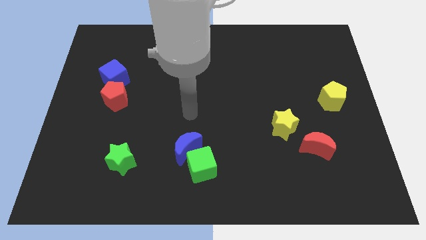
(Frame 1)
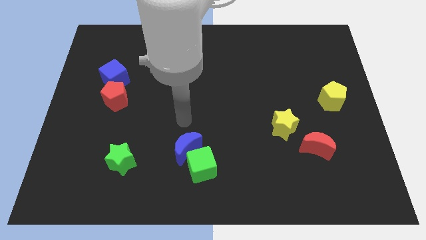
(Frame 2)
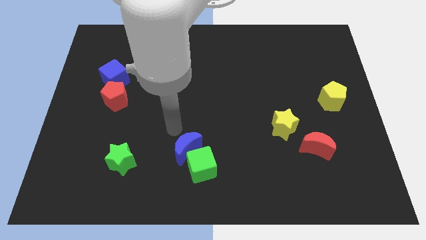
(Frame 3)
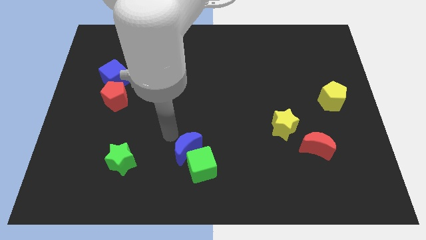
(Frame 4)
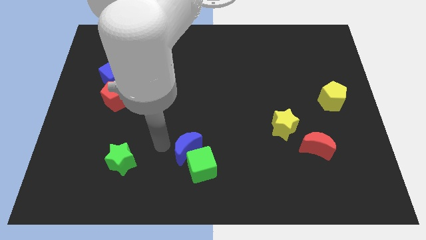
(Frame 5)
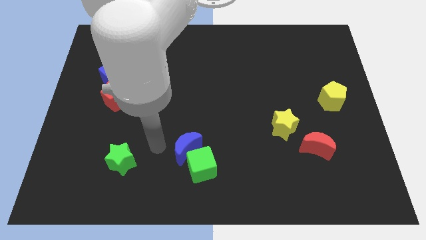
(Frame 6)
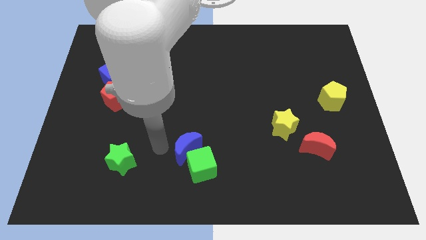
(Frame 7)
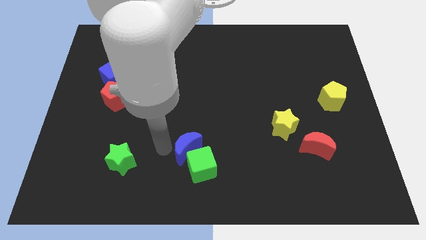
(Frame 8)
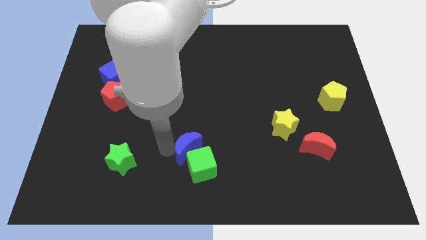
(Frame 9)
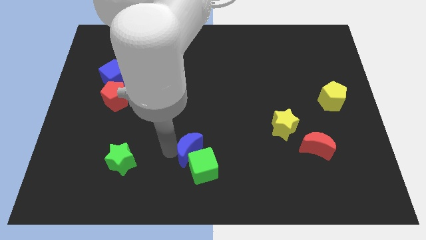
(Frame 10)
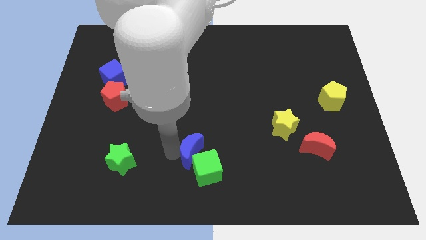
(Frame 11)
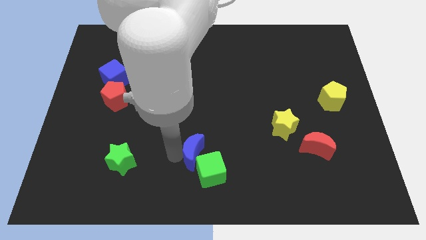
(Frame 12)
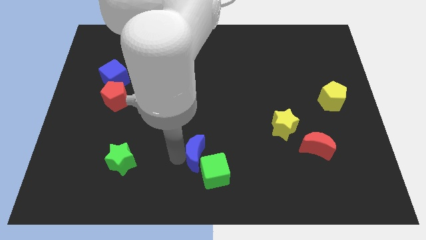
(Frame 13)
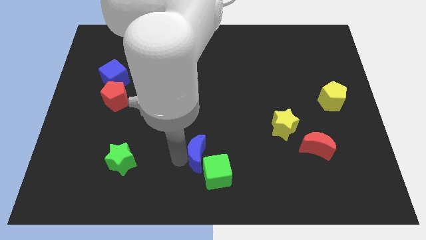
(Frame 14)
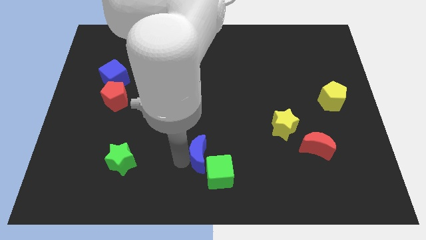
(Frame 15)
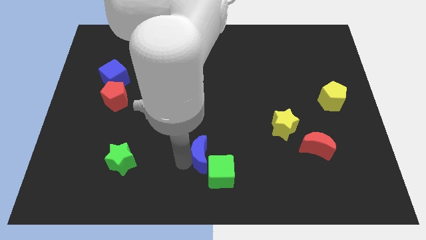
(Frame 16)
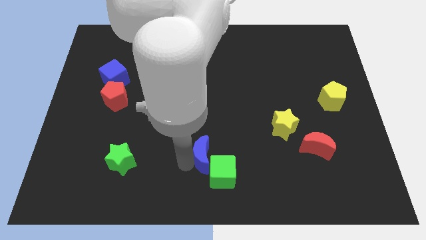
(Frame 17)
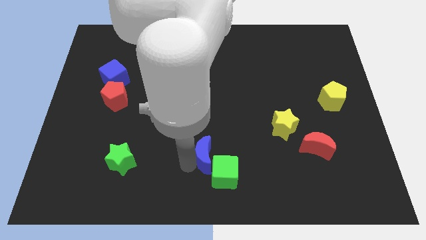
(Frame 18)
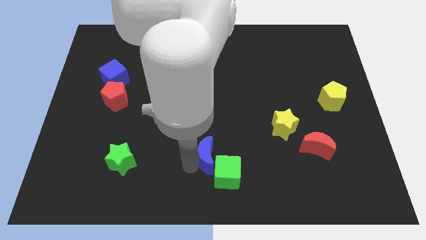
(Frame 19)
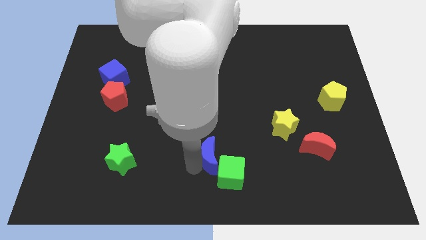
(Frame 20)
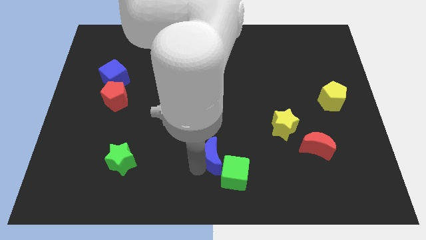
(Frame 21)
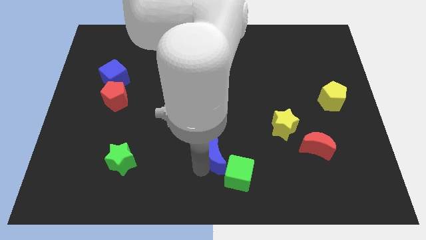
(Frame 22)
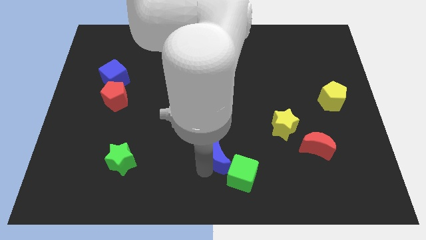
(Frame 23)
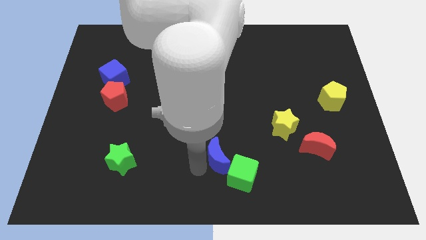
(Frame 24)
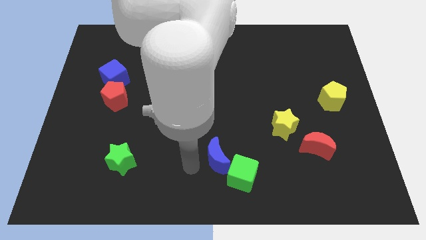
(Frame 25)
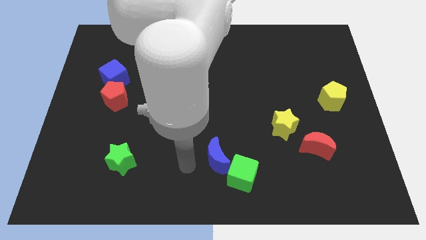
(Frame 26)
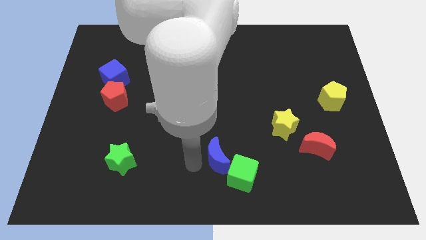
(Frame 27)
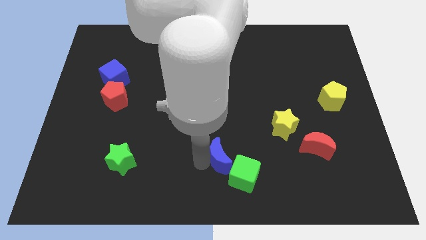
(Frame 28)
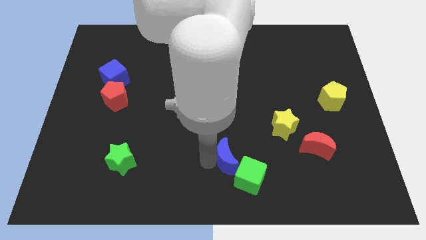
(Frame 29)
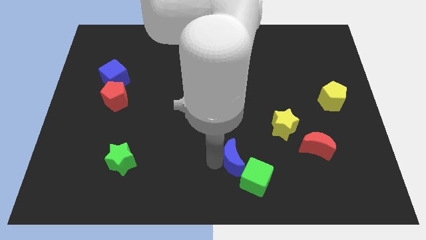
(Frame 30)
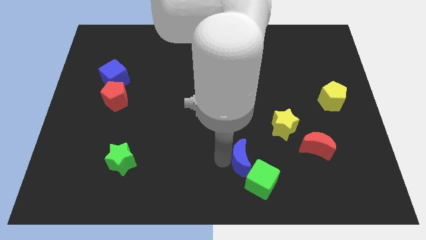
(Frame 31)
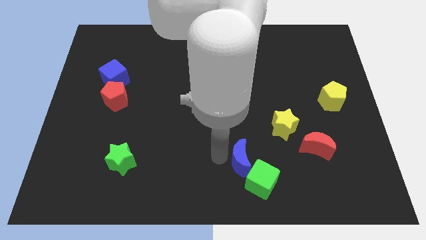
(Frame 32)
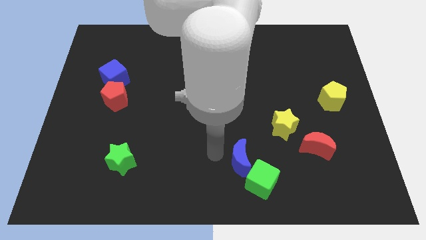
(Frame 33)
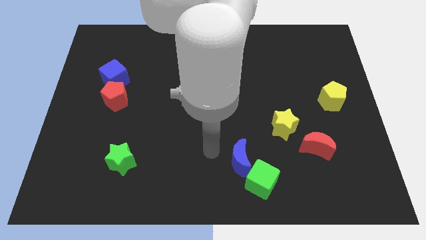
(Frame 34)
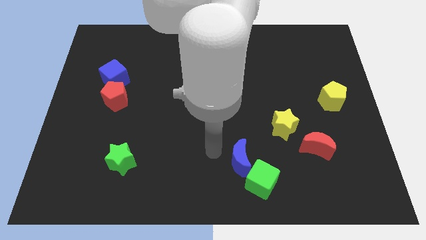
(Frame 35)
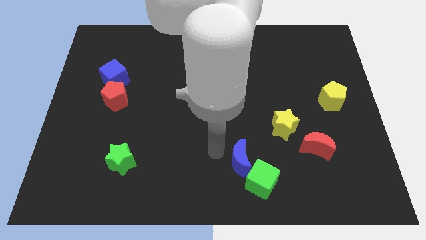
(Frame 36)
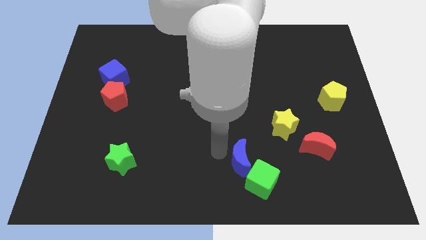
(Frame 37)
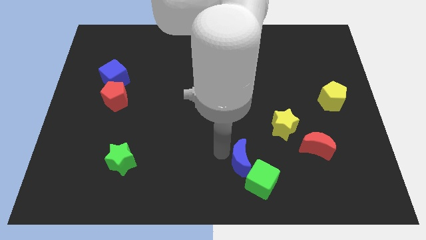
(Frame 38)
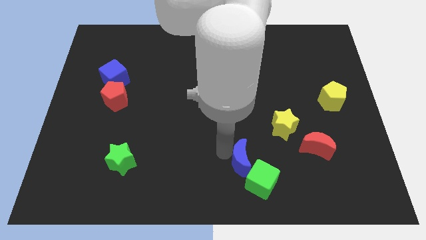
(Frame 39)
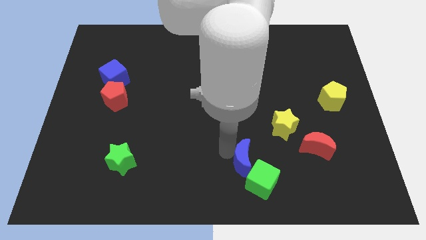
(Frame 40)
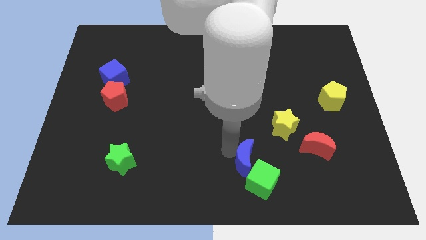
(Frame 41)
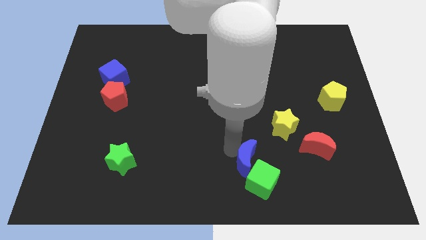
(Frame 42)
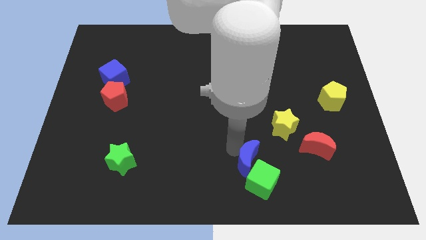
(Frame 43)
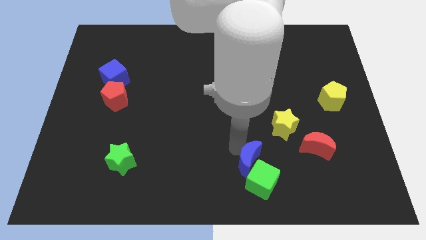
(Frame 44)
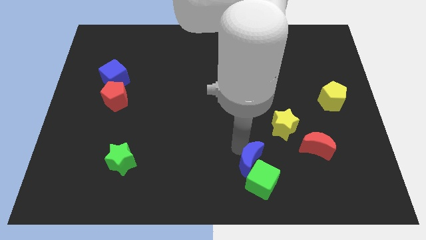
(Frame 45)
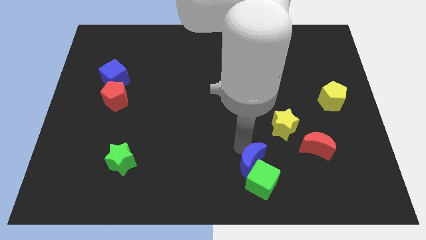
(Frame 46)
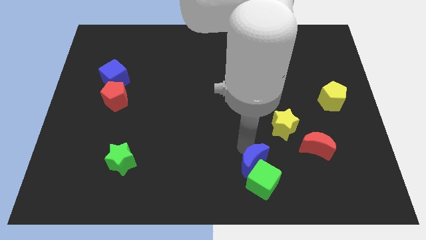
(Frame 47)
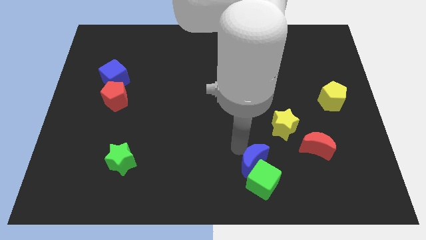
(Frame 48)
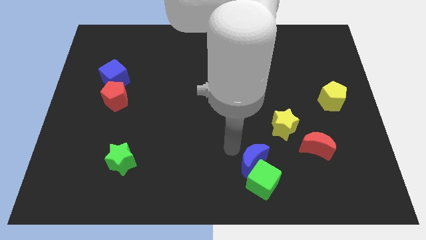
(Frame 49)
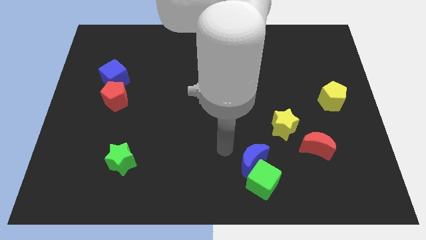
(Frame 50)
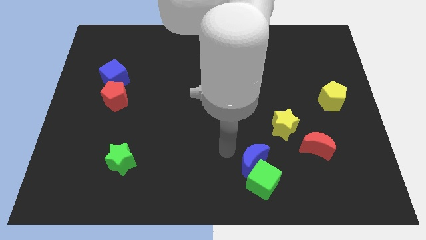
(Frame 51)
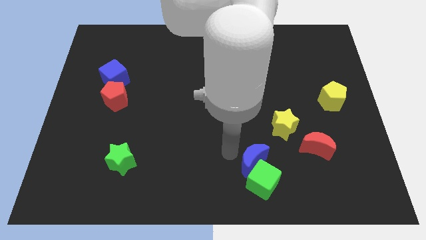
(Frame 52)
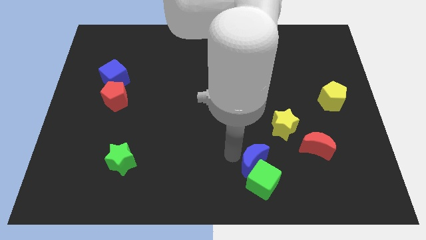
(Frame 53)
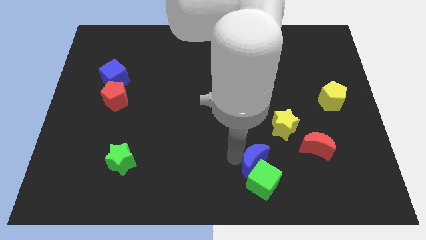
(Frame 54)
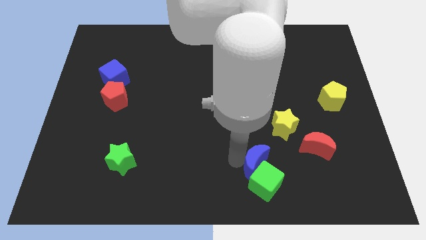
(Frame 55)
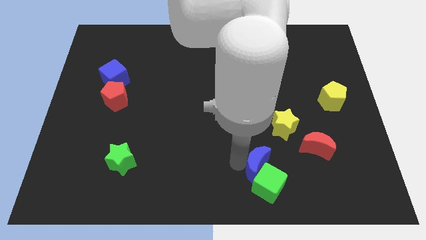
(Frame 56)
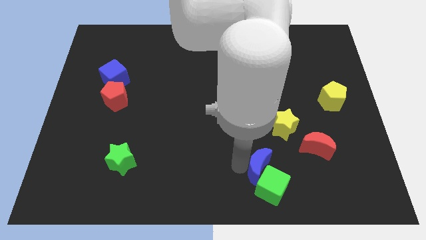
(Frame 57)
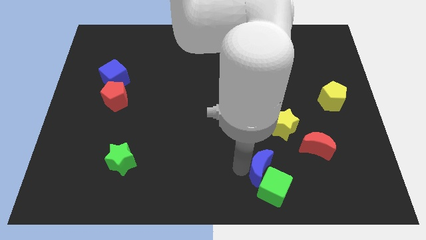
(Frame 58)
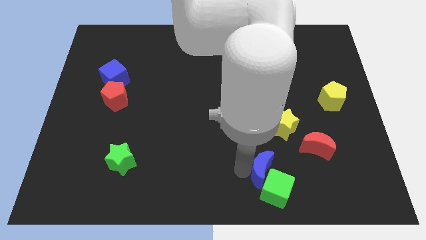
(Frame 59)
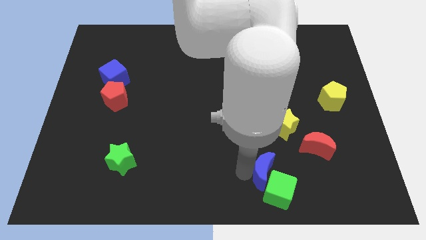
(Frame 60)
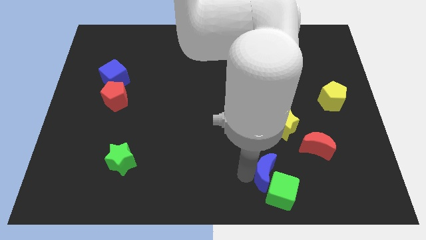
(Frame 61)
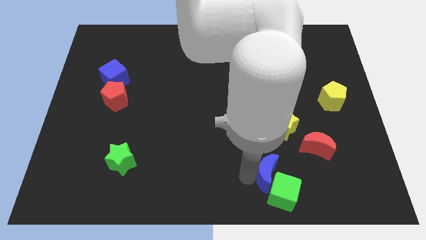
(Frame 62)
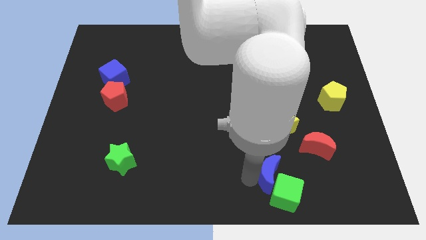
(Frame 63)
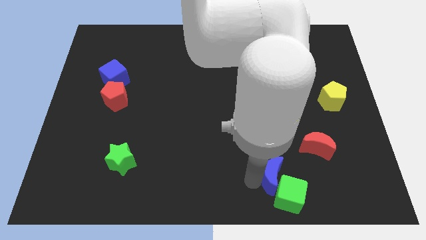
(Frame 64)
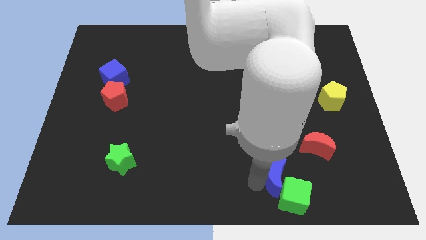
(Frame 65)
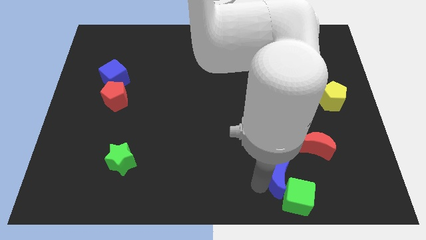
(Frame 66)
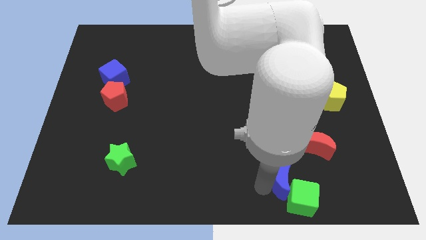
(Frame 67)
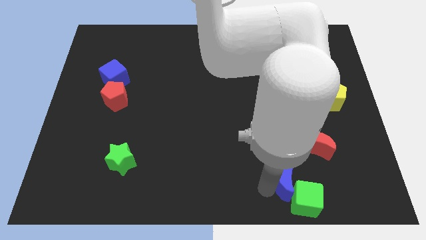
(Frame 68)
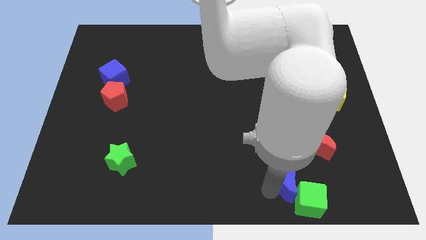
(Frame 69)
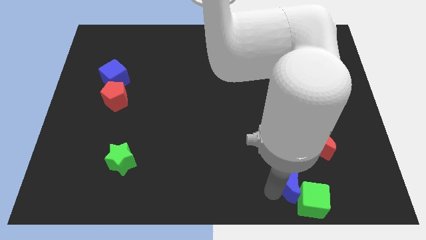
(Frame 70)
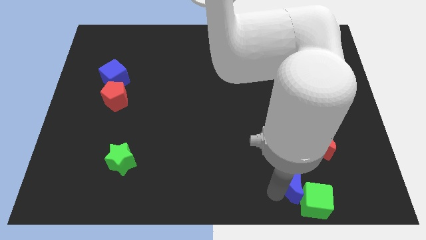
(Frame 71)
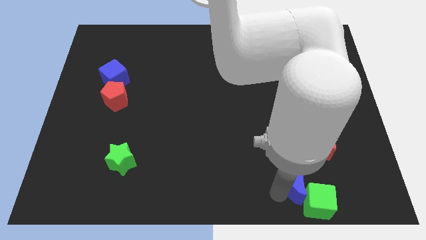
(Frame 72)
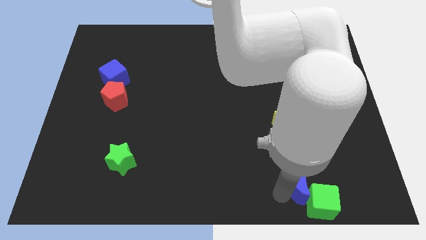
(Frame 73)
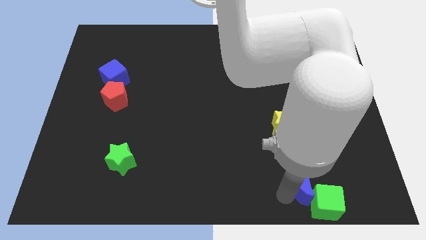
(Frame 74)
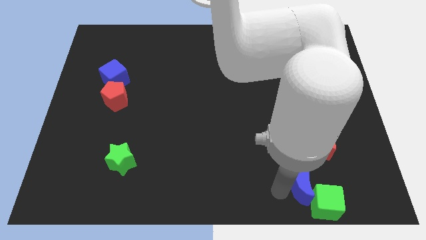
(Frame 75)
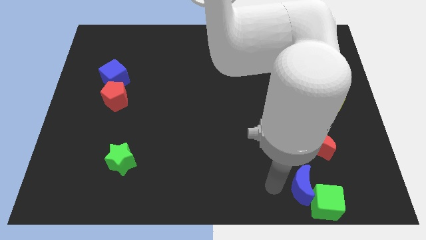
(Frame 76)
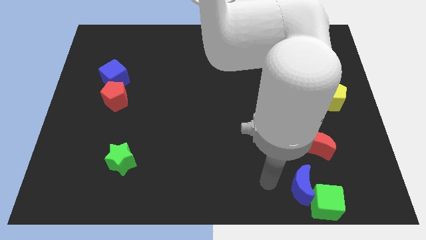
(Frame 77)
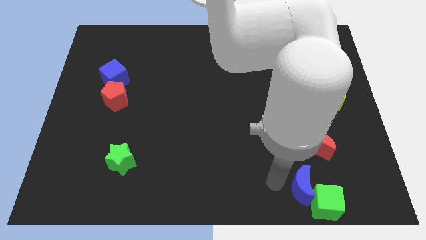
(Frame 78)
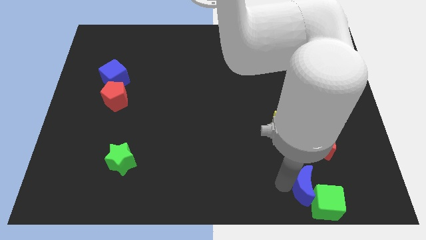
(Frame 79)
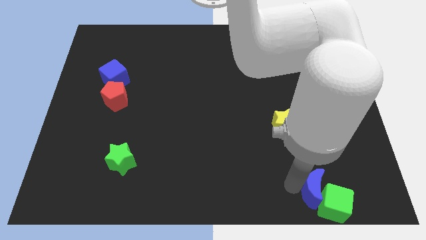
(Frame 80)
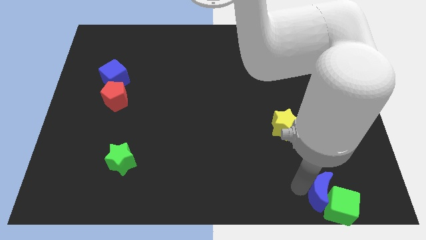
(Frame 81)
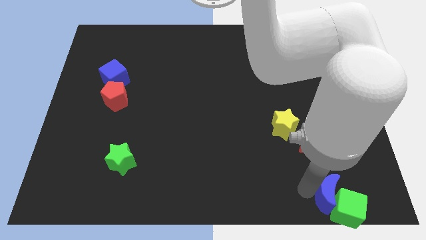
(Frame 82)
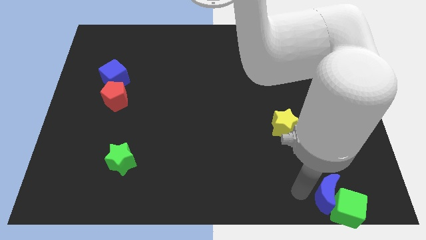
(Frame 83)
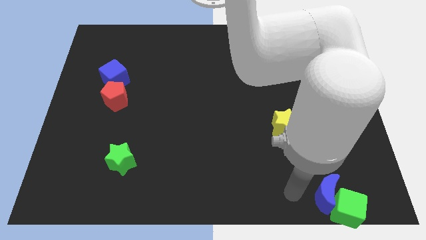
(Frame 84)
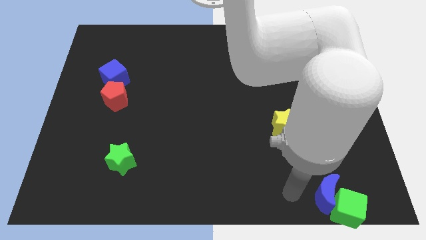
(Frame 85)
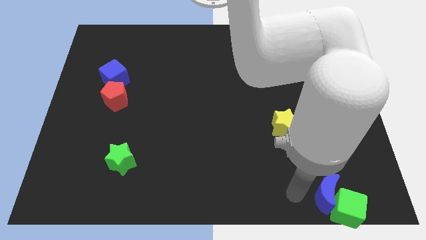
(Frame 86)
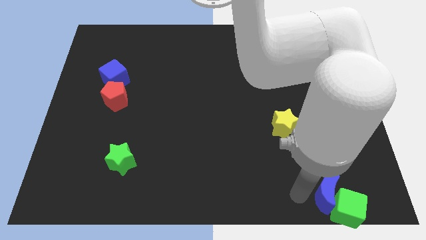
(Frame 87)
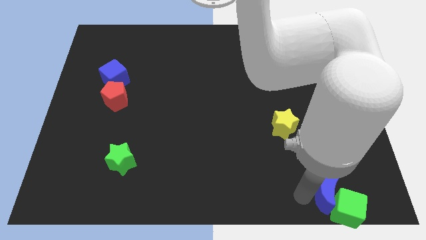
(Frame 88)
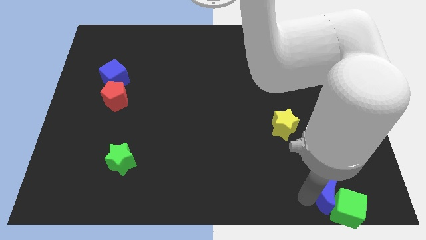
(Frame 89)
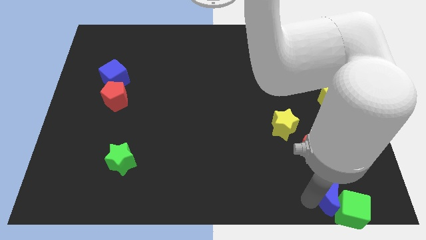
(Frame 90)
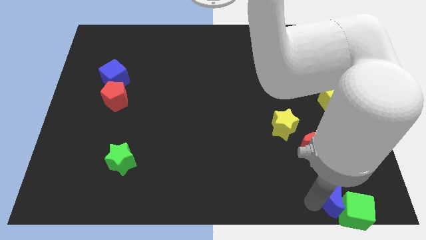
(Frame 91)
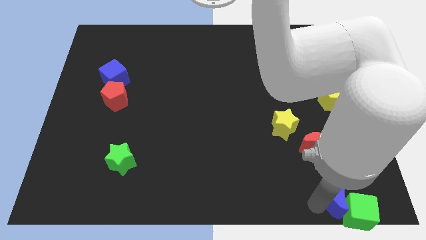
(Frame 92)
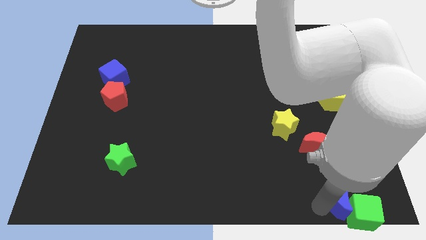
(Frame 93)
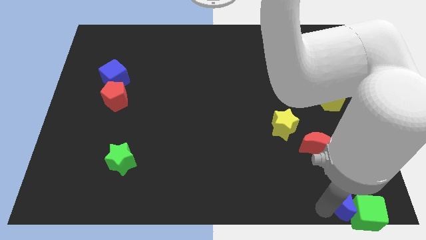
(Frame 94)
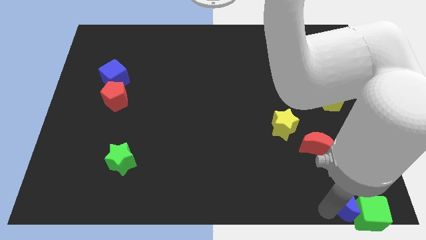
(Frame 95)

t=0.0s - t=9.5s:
slide the blue moon to the lower right corner
